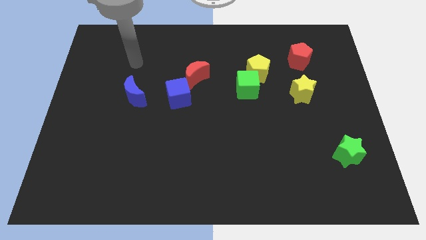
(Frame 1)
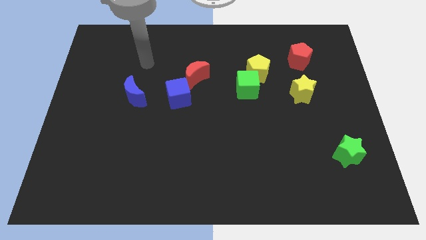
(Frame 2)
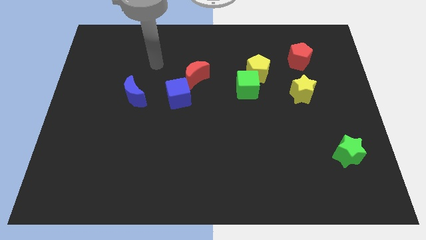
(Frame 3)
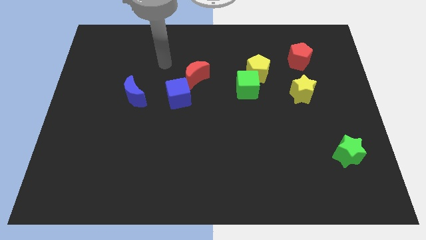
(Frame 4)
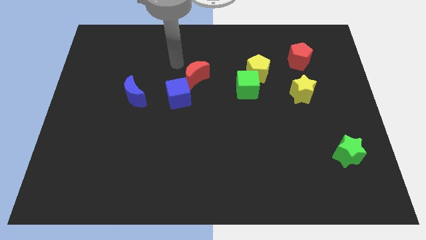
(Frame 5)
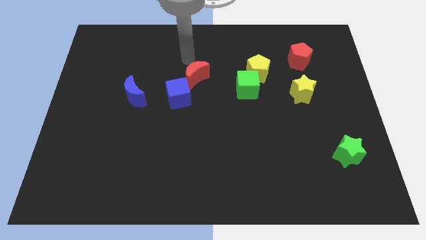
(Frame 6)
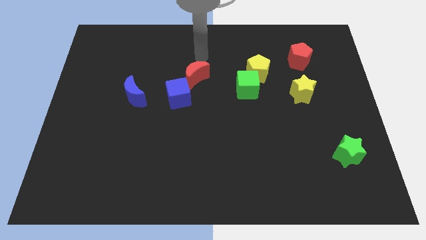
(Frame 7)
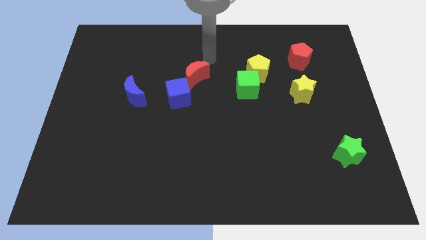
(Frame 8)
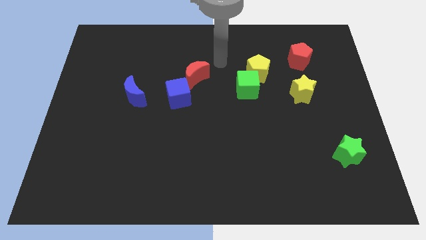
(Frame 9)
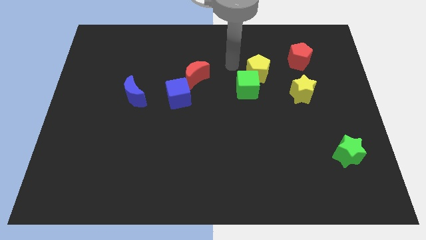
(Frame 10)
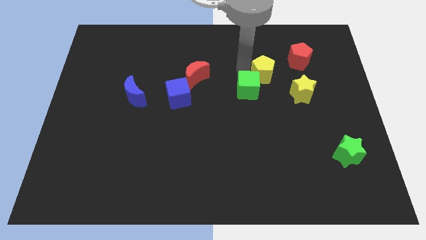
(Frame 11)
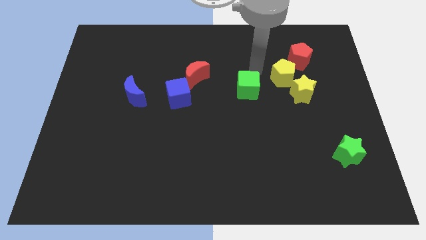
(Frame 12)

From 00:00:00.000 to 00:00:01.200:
separate the green cube from the yellow pentagon

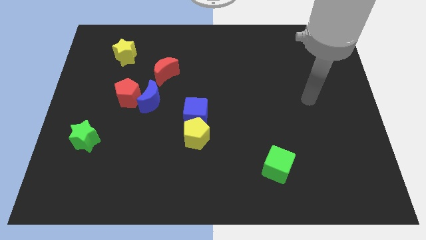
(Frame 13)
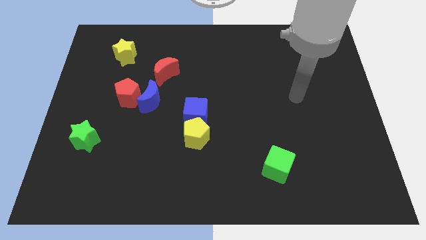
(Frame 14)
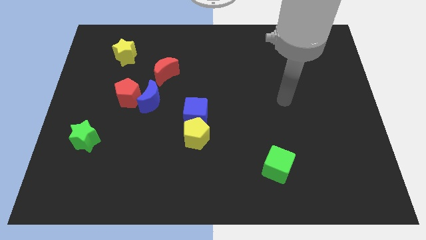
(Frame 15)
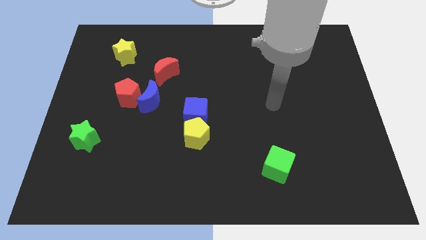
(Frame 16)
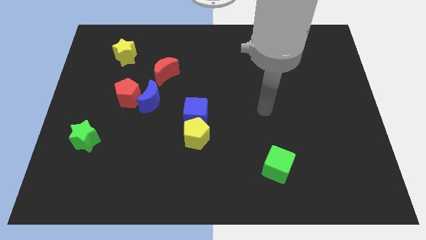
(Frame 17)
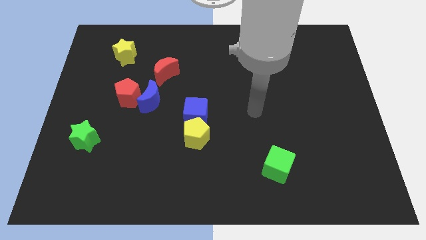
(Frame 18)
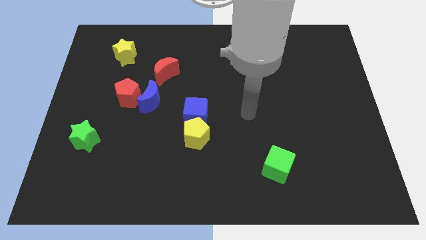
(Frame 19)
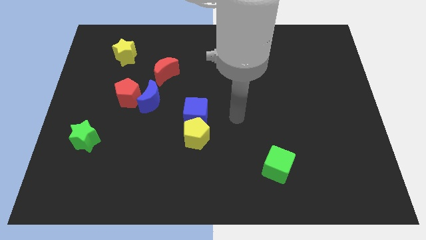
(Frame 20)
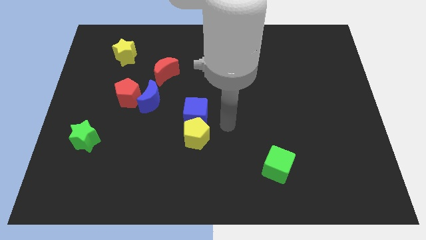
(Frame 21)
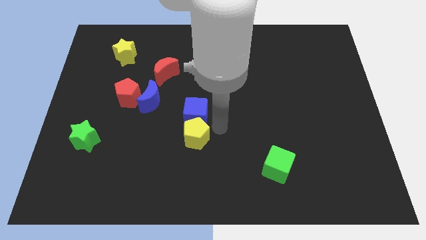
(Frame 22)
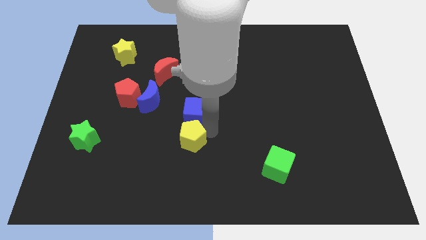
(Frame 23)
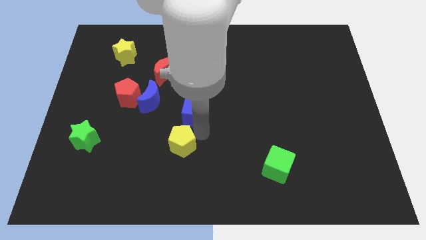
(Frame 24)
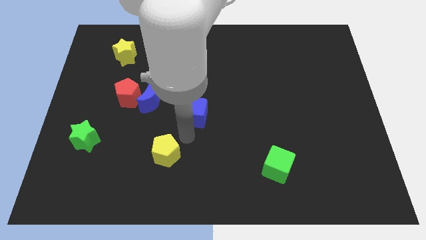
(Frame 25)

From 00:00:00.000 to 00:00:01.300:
pull the blue cube apart from the yellow pentagon

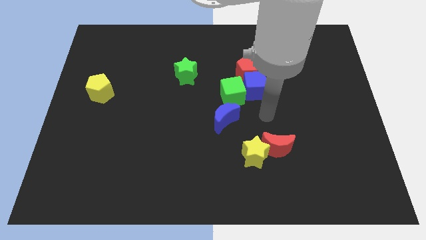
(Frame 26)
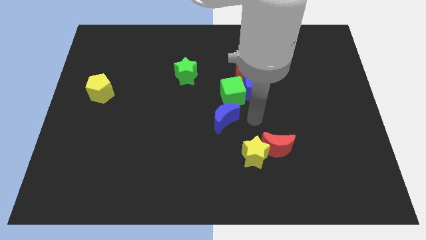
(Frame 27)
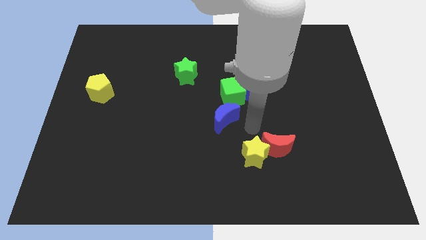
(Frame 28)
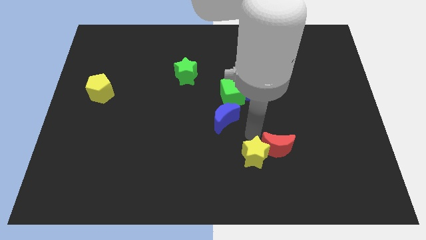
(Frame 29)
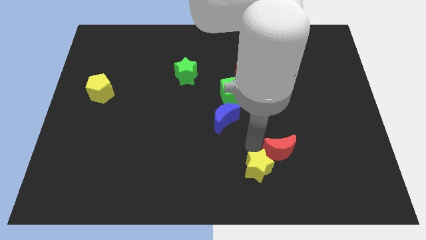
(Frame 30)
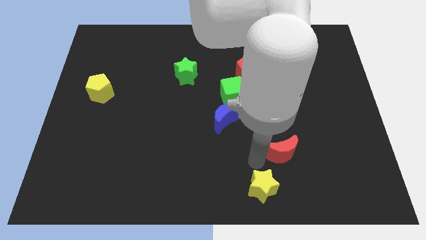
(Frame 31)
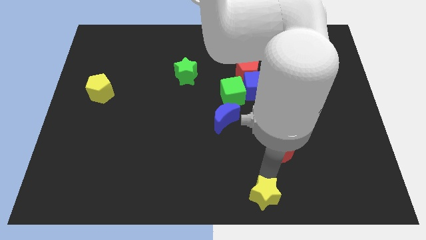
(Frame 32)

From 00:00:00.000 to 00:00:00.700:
move the red moon away from the yellow star

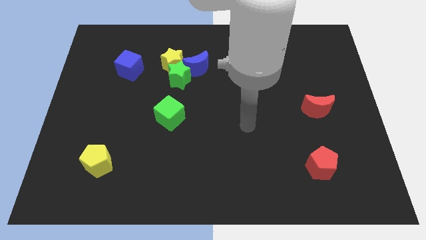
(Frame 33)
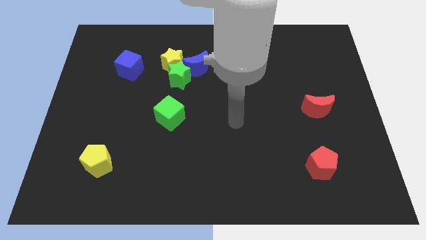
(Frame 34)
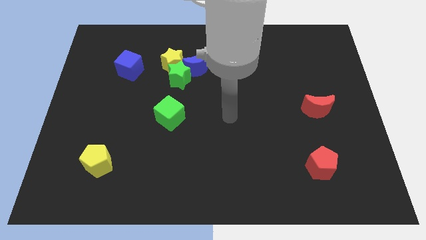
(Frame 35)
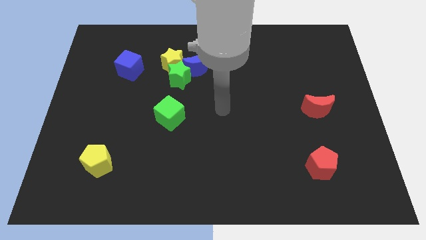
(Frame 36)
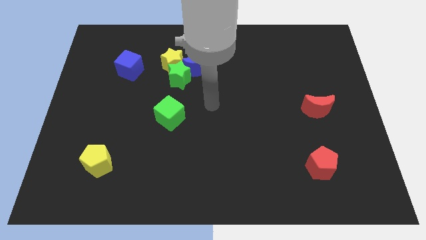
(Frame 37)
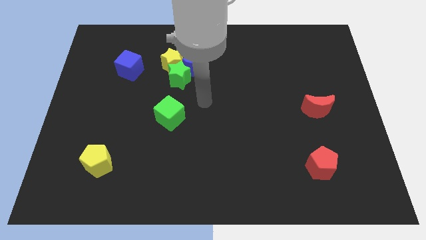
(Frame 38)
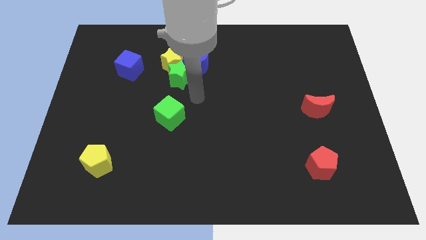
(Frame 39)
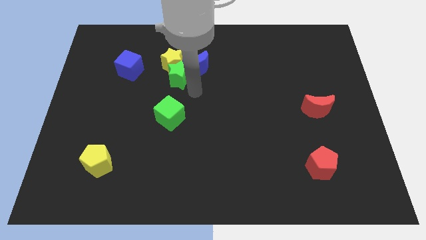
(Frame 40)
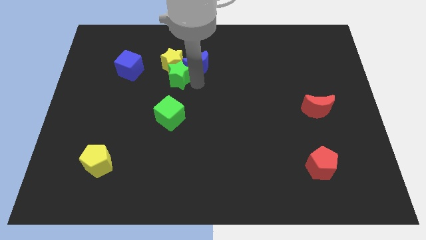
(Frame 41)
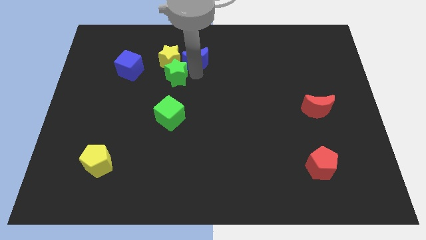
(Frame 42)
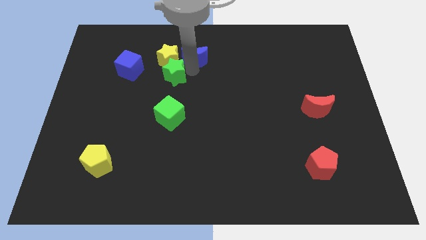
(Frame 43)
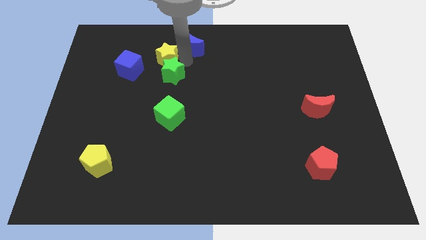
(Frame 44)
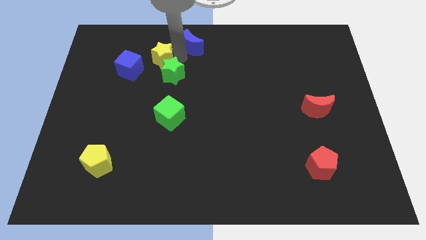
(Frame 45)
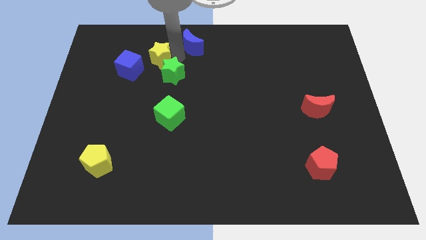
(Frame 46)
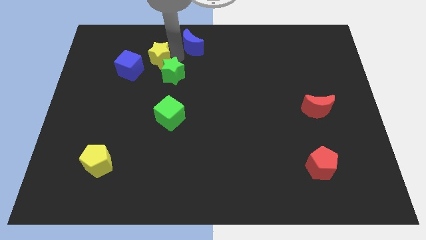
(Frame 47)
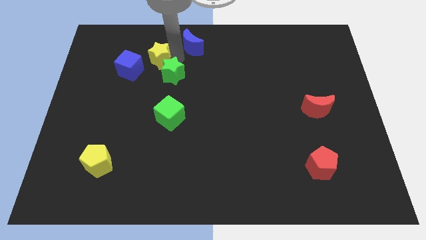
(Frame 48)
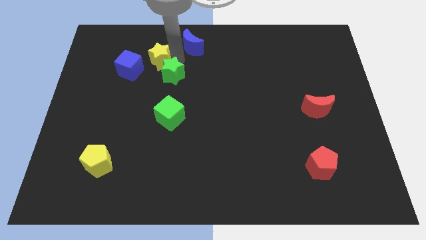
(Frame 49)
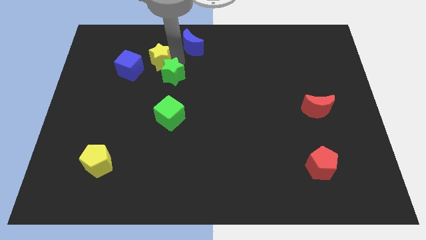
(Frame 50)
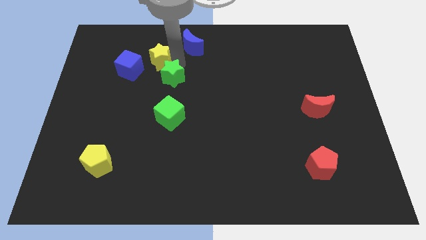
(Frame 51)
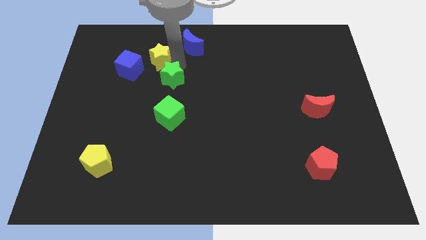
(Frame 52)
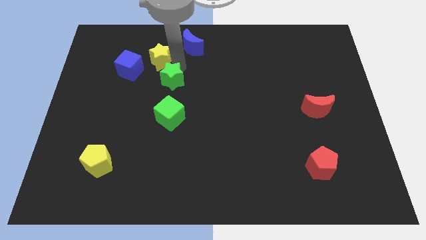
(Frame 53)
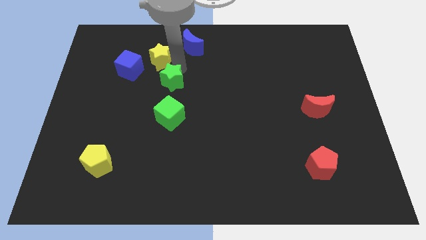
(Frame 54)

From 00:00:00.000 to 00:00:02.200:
move the green star away from the yellow star and blue moon

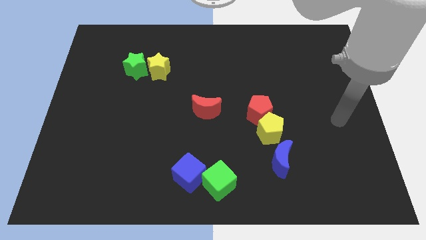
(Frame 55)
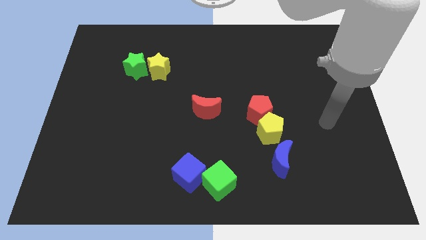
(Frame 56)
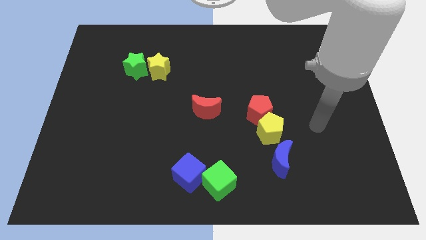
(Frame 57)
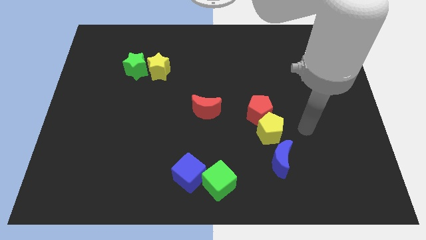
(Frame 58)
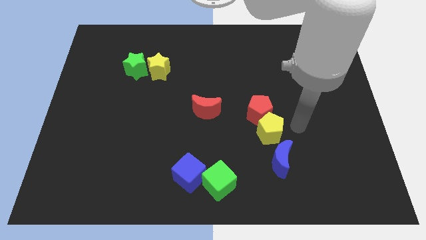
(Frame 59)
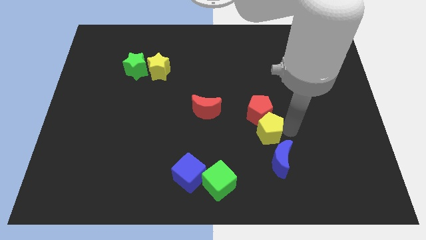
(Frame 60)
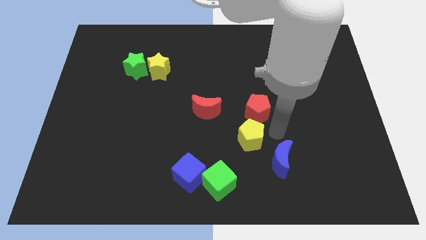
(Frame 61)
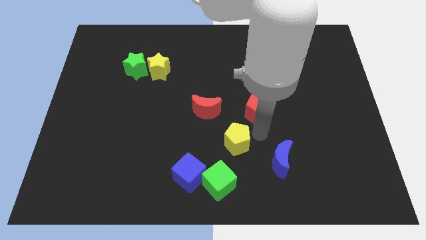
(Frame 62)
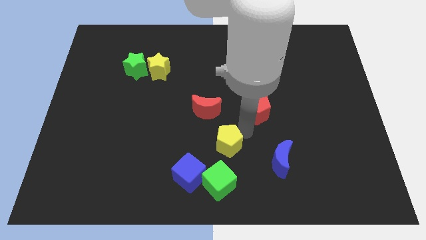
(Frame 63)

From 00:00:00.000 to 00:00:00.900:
separate the red pentagon from the yellow pentagon

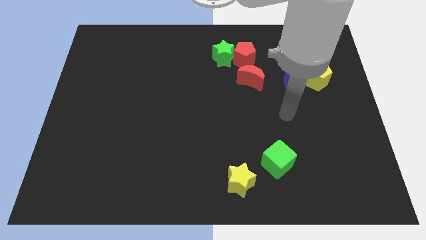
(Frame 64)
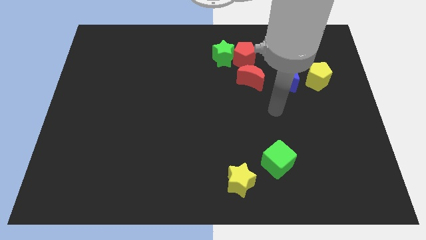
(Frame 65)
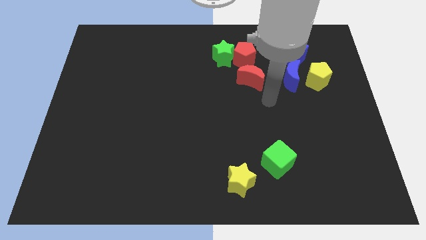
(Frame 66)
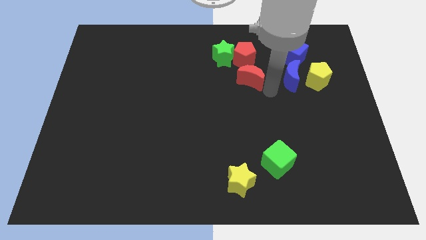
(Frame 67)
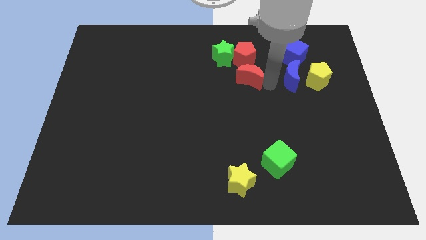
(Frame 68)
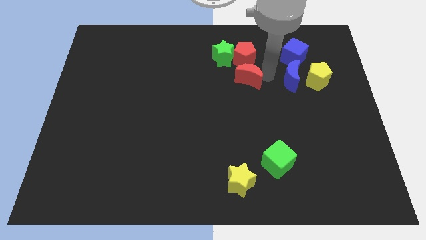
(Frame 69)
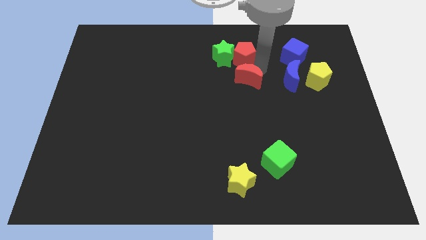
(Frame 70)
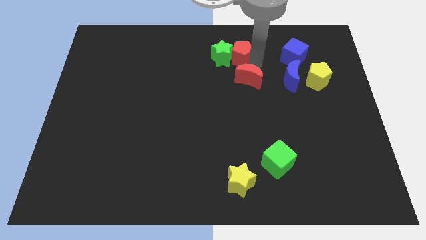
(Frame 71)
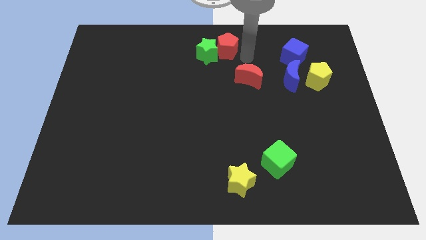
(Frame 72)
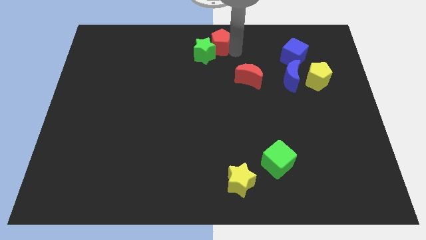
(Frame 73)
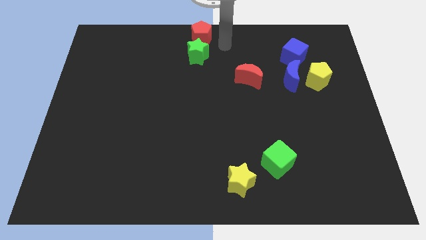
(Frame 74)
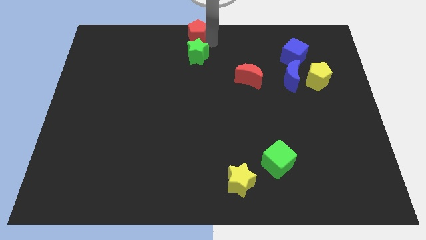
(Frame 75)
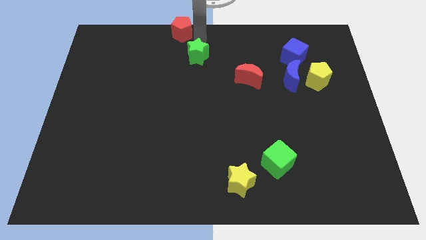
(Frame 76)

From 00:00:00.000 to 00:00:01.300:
separate the green star from the red pentagon

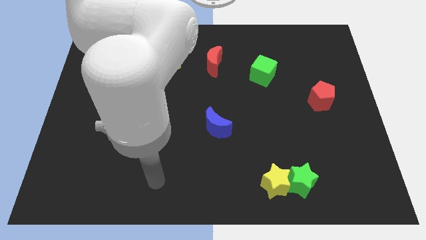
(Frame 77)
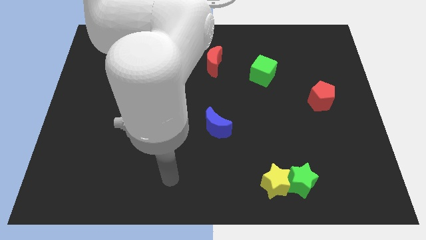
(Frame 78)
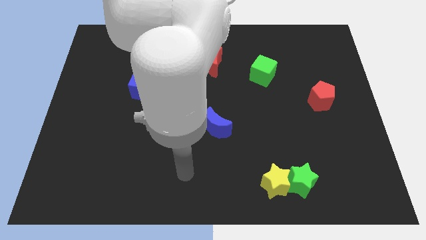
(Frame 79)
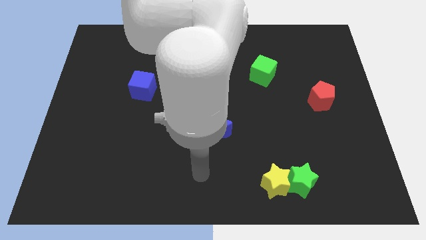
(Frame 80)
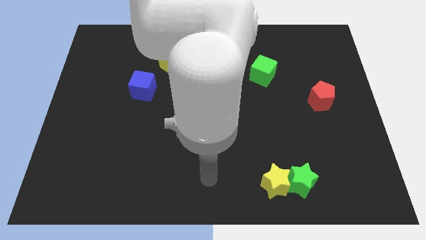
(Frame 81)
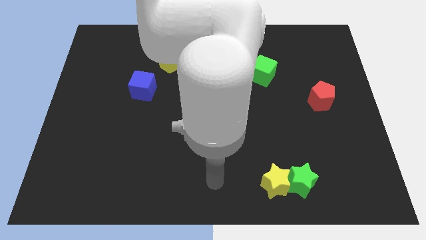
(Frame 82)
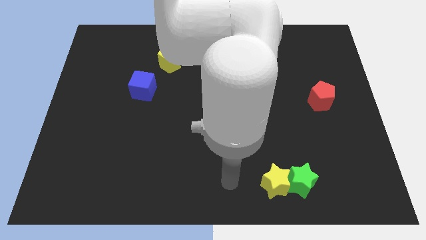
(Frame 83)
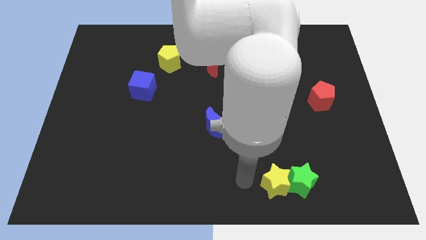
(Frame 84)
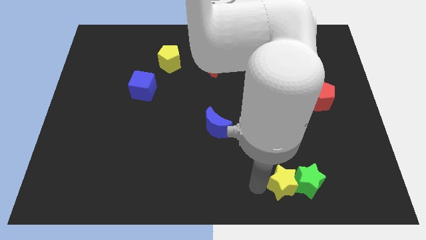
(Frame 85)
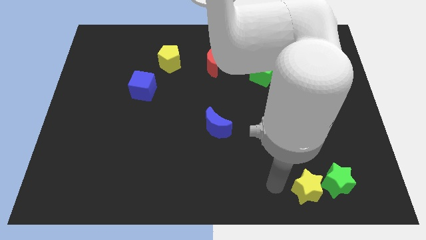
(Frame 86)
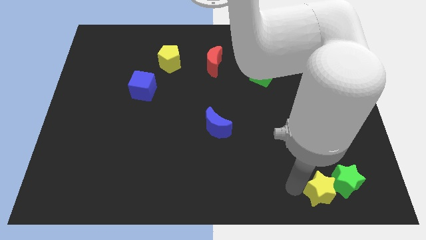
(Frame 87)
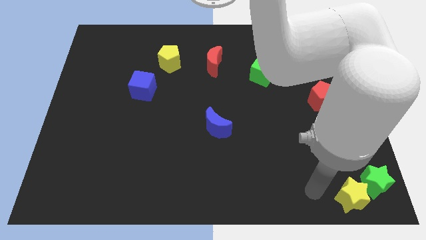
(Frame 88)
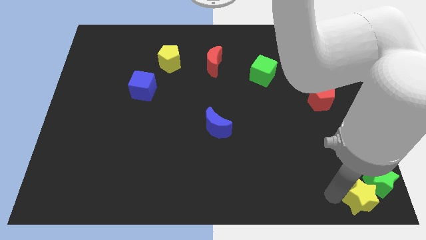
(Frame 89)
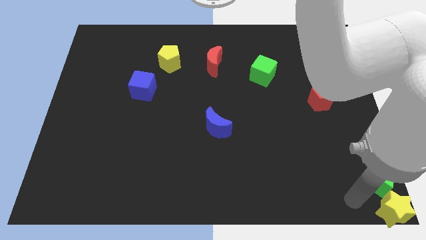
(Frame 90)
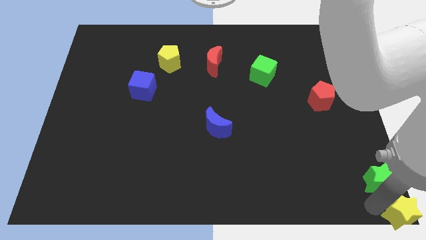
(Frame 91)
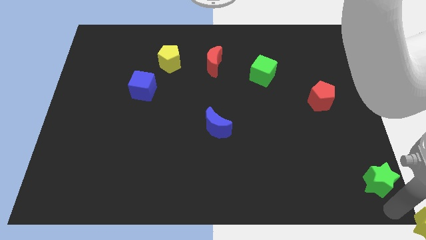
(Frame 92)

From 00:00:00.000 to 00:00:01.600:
pull the green star apart from the yellow star

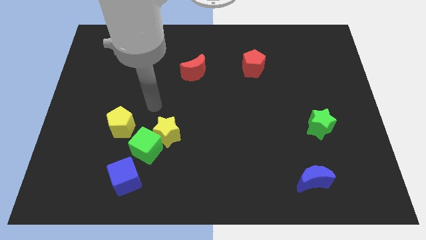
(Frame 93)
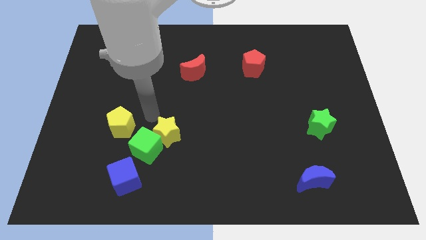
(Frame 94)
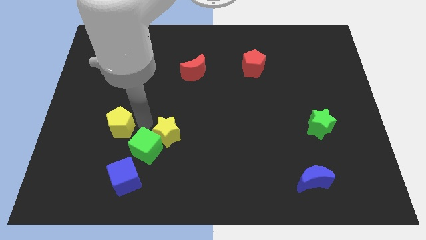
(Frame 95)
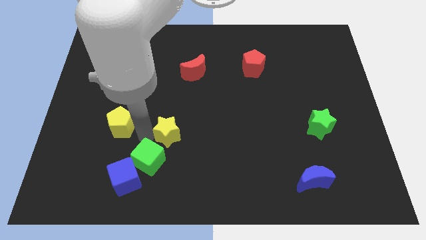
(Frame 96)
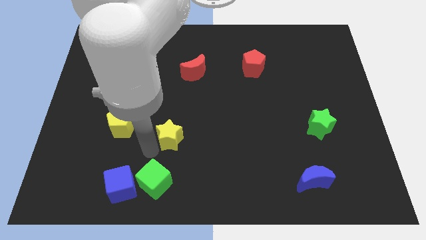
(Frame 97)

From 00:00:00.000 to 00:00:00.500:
separate the yellow star from the green cube
